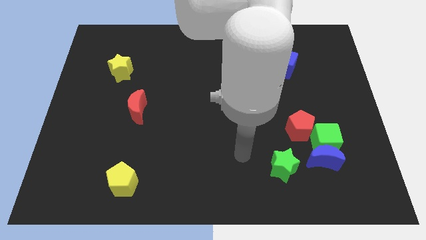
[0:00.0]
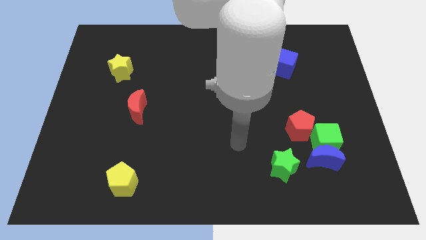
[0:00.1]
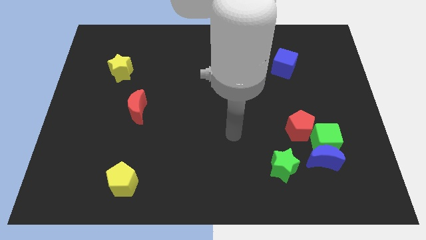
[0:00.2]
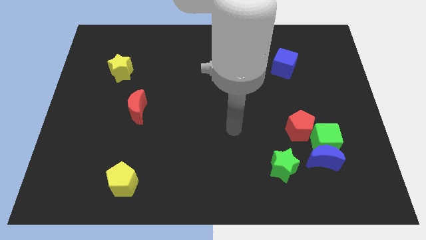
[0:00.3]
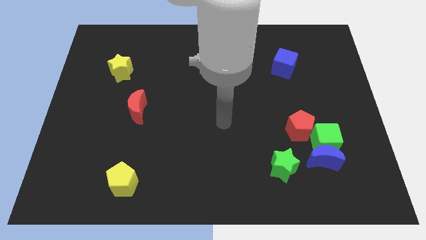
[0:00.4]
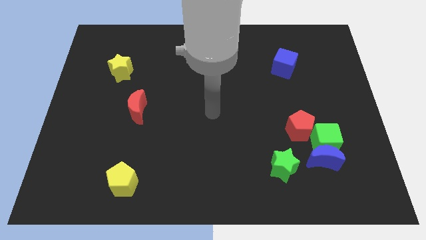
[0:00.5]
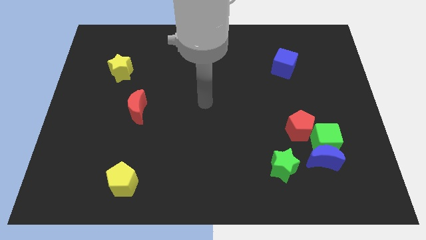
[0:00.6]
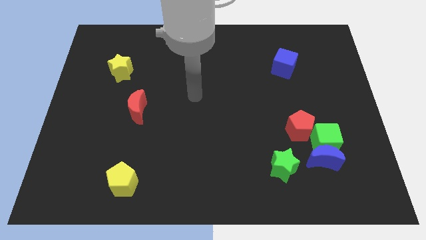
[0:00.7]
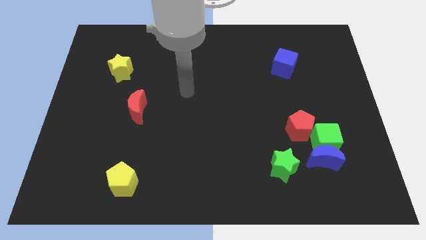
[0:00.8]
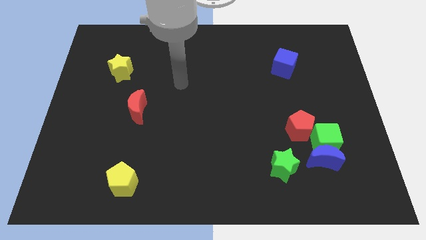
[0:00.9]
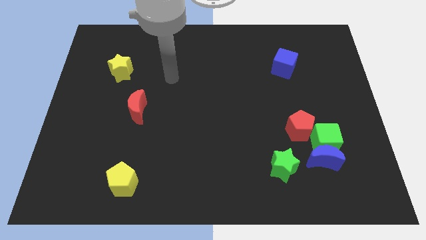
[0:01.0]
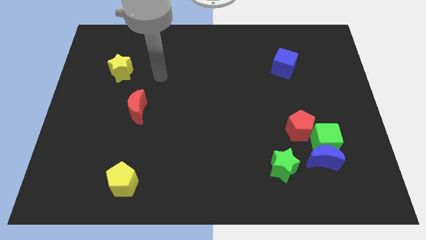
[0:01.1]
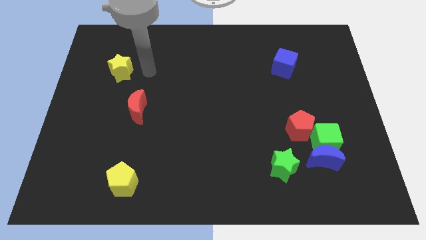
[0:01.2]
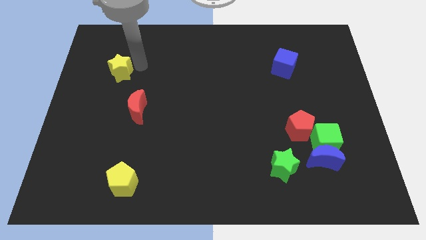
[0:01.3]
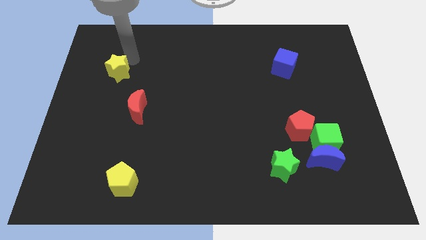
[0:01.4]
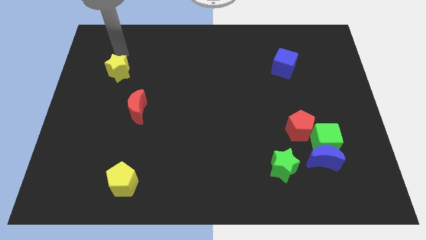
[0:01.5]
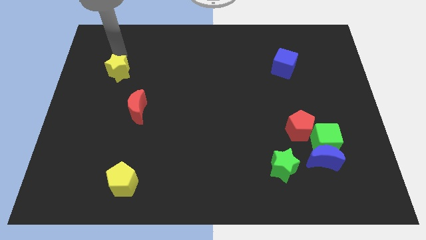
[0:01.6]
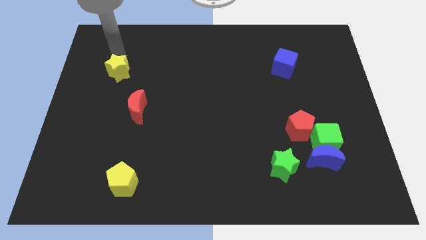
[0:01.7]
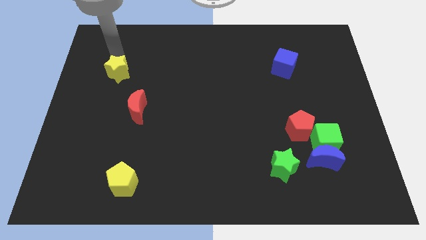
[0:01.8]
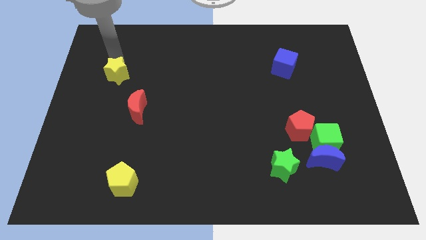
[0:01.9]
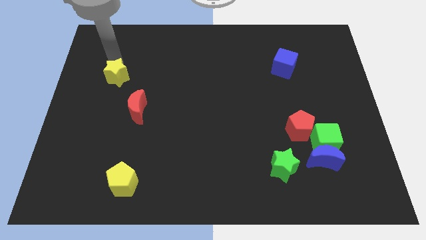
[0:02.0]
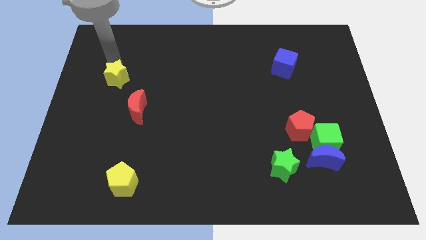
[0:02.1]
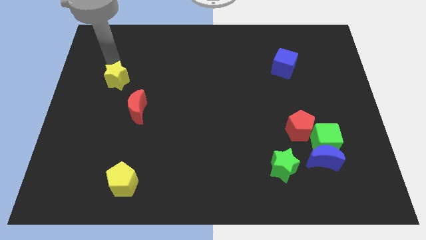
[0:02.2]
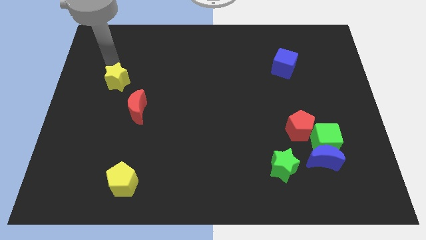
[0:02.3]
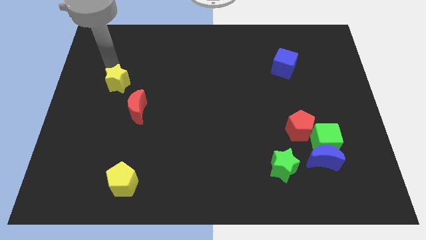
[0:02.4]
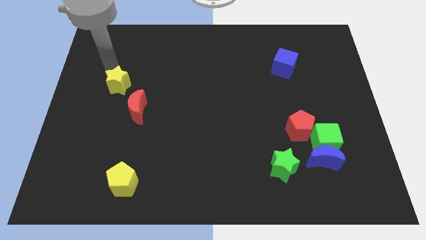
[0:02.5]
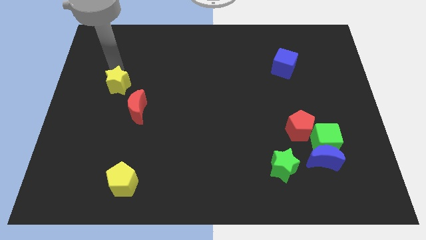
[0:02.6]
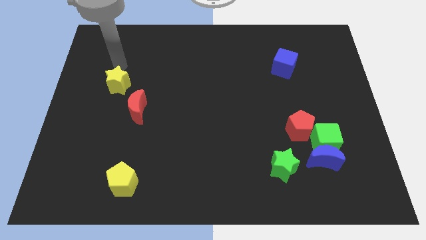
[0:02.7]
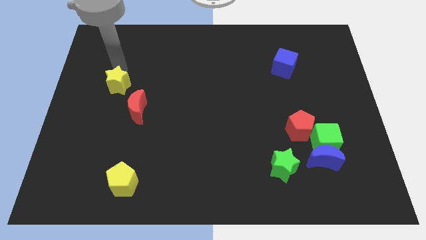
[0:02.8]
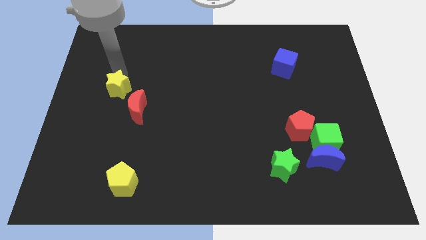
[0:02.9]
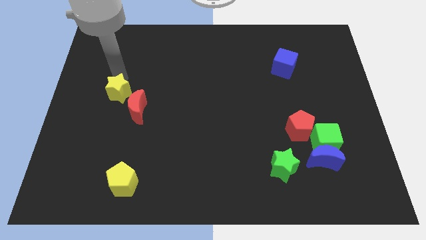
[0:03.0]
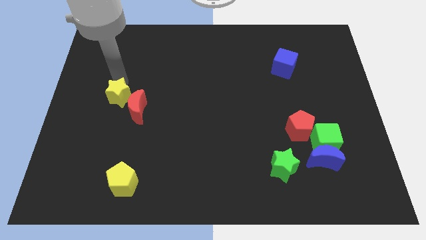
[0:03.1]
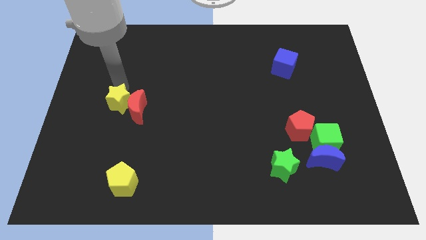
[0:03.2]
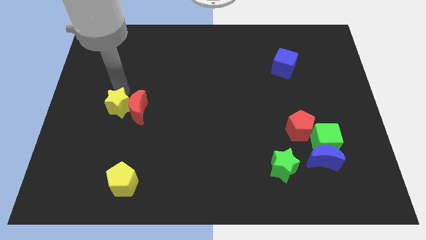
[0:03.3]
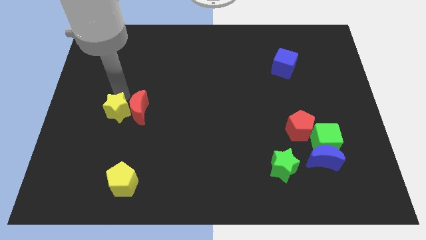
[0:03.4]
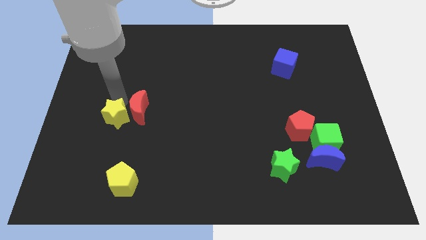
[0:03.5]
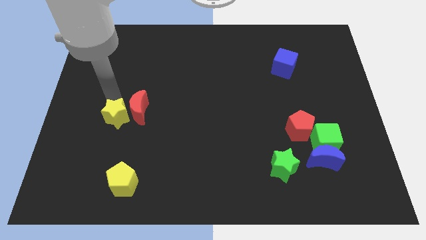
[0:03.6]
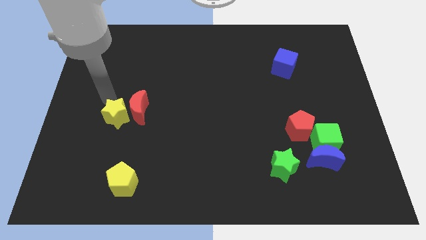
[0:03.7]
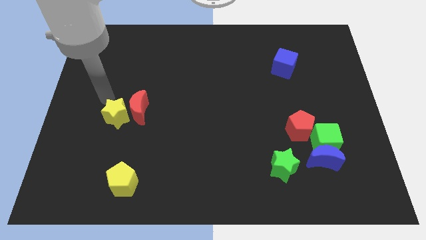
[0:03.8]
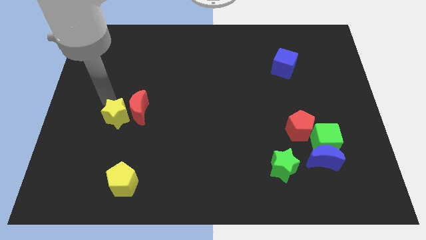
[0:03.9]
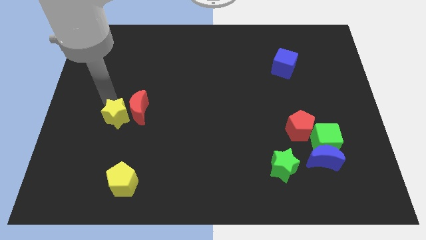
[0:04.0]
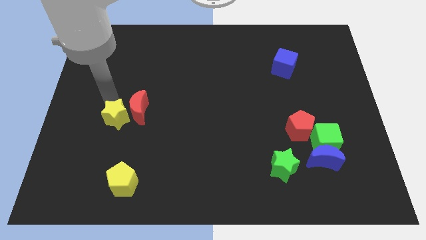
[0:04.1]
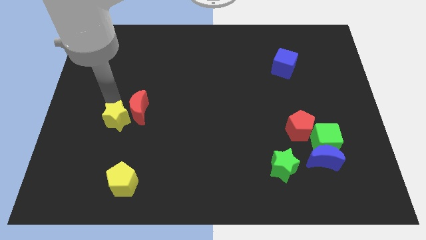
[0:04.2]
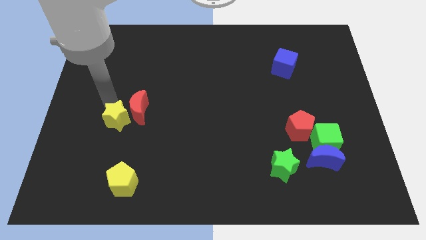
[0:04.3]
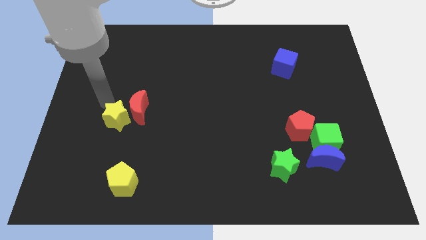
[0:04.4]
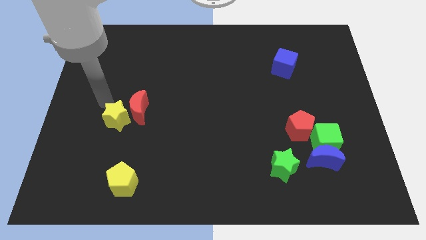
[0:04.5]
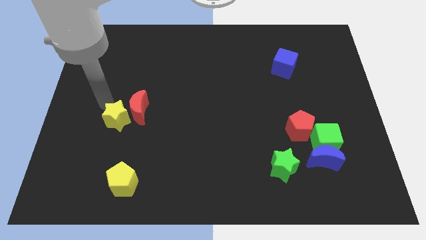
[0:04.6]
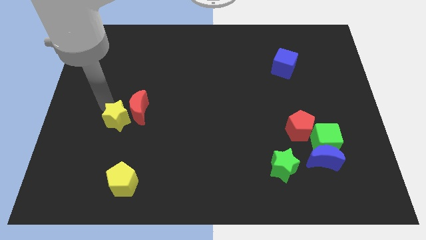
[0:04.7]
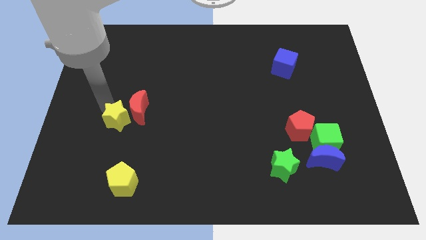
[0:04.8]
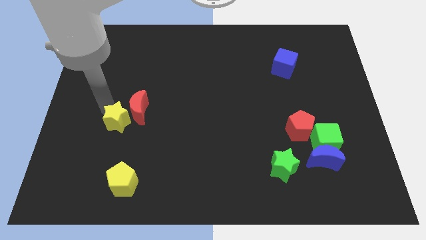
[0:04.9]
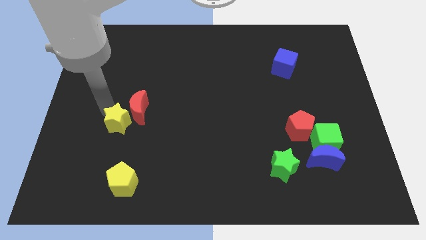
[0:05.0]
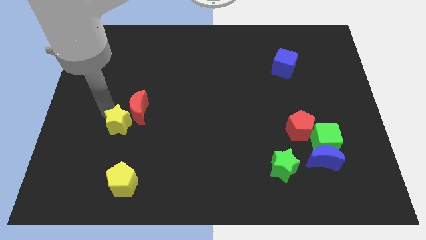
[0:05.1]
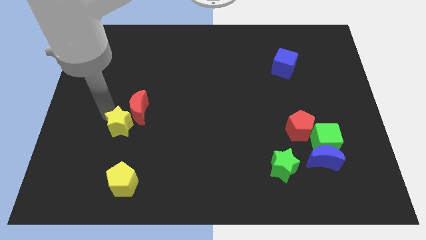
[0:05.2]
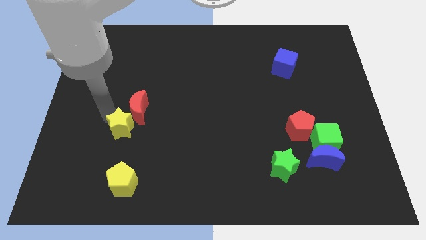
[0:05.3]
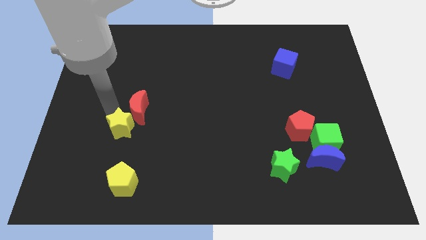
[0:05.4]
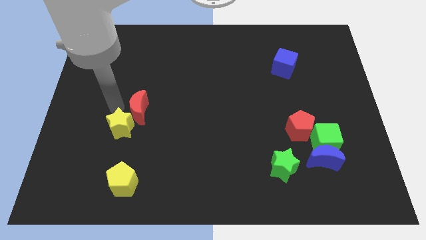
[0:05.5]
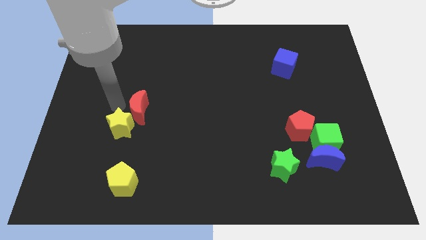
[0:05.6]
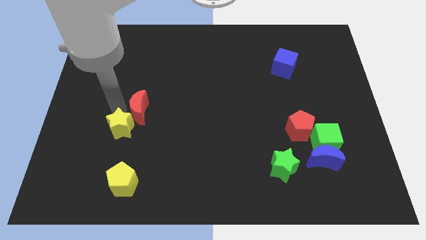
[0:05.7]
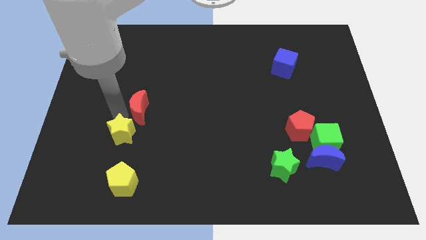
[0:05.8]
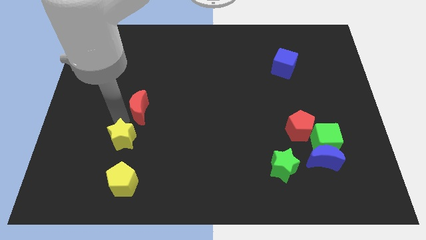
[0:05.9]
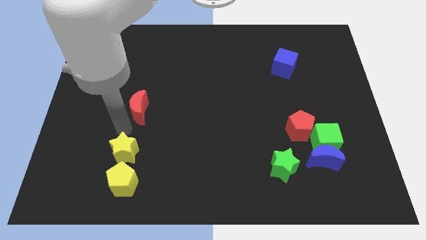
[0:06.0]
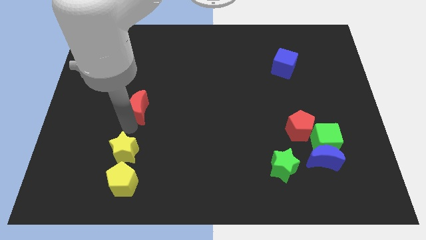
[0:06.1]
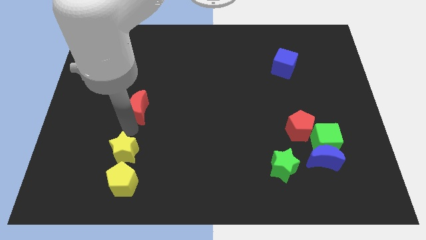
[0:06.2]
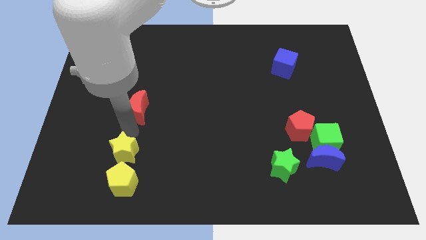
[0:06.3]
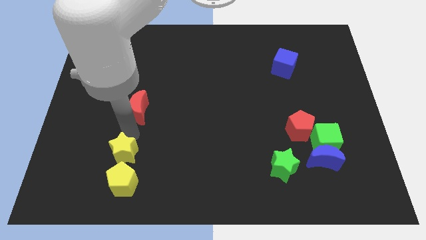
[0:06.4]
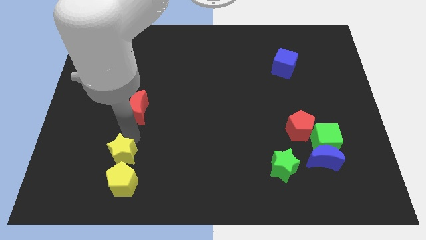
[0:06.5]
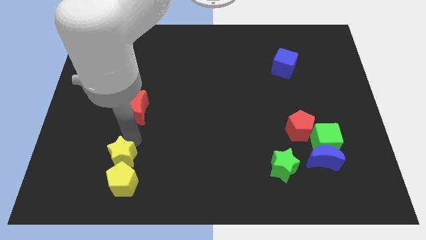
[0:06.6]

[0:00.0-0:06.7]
slide the yellow star next to the yellow pentagon

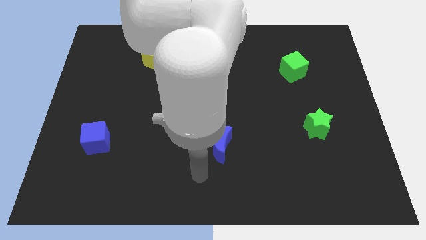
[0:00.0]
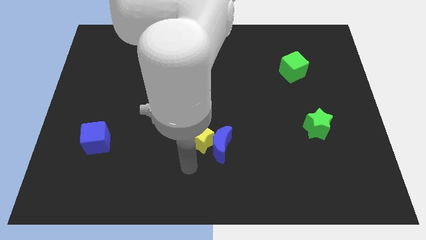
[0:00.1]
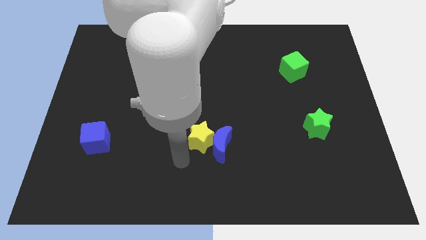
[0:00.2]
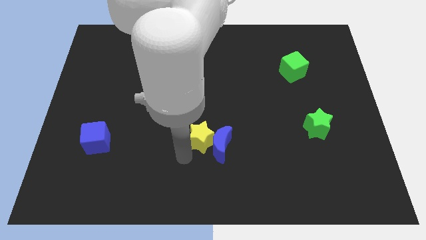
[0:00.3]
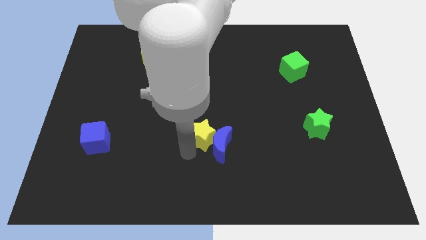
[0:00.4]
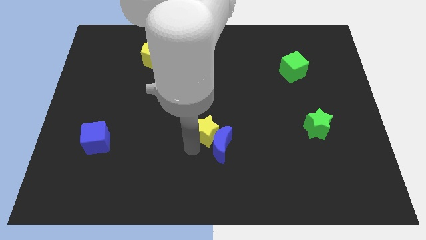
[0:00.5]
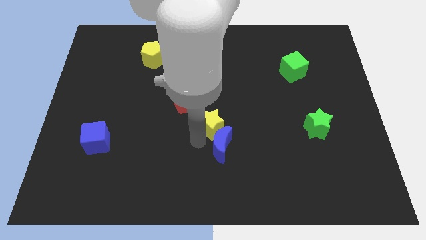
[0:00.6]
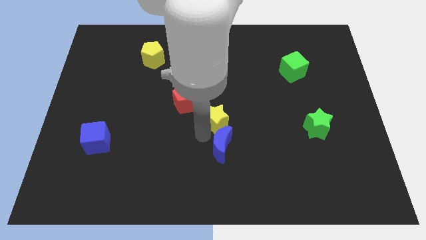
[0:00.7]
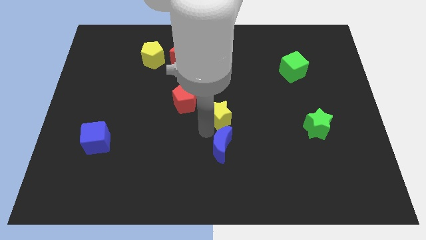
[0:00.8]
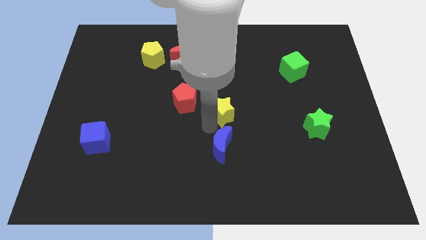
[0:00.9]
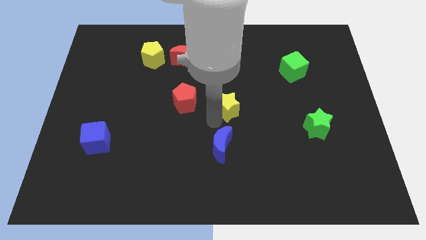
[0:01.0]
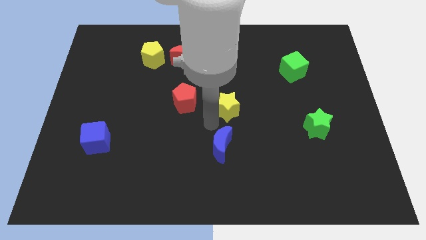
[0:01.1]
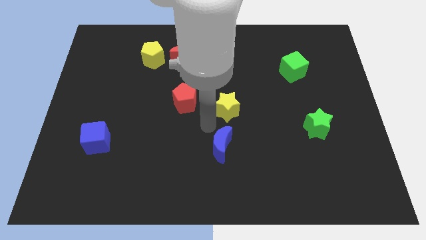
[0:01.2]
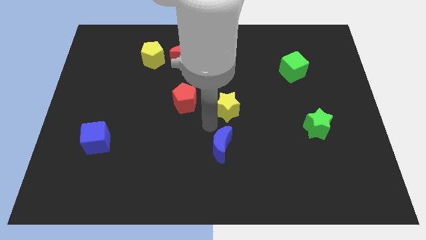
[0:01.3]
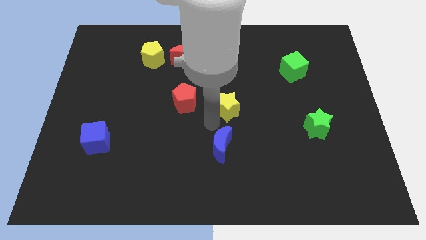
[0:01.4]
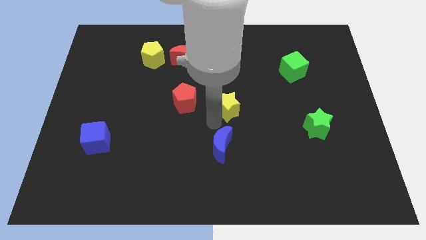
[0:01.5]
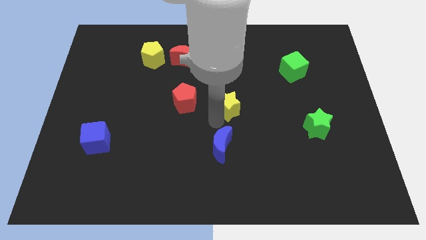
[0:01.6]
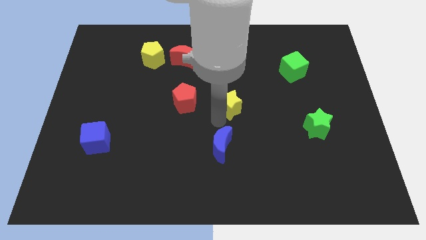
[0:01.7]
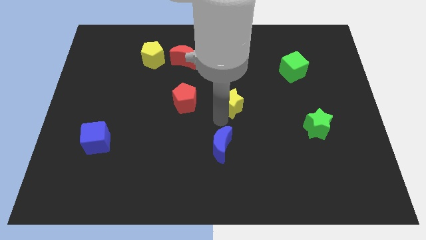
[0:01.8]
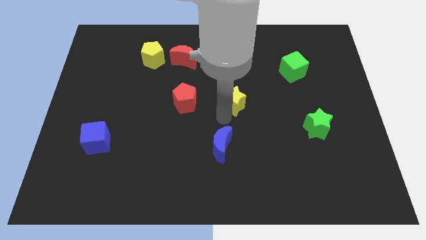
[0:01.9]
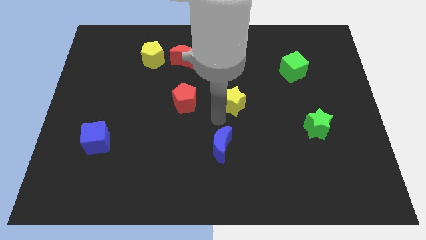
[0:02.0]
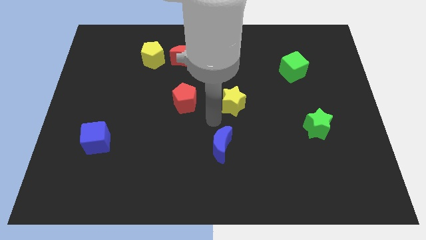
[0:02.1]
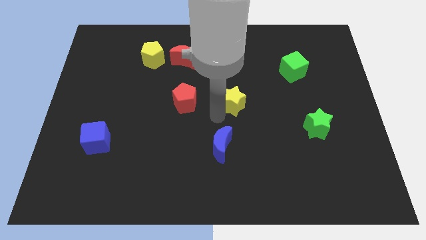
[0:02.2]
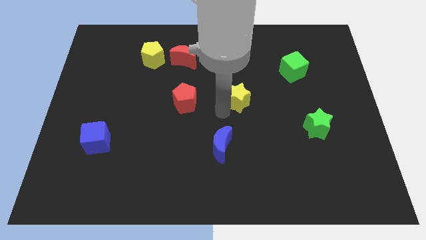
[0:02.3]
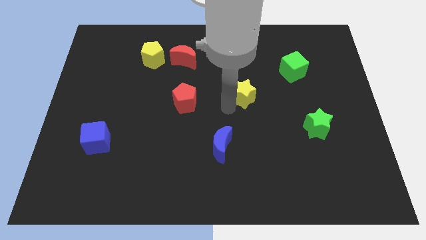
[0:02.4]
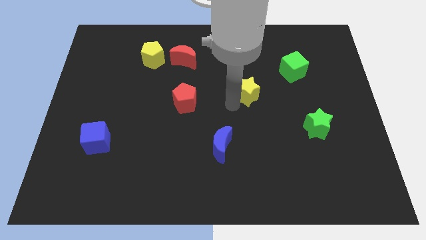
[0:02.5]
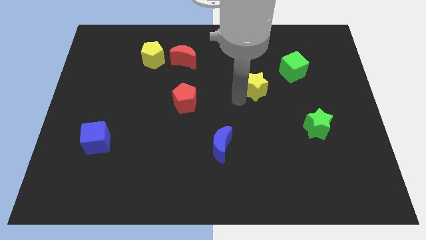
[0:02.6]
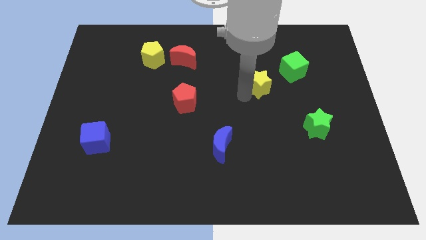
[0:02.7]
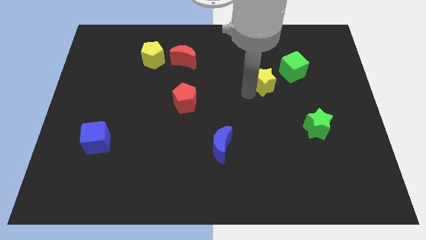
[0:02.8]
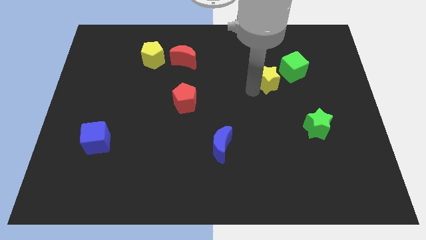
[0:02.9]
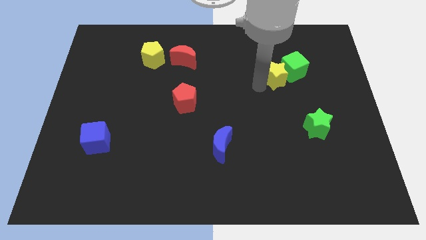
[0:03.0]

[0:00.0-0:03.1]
put the yellow star to the green cube
